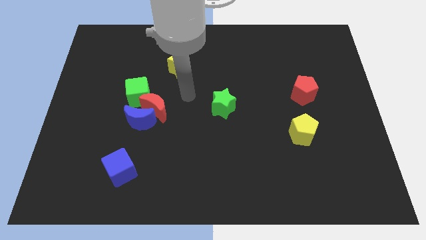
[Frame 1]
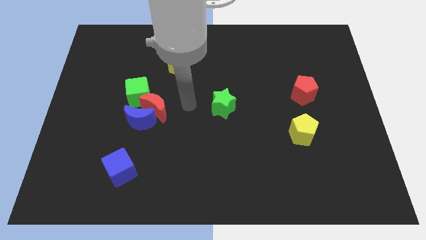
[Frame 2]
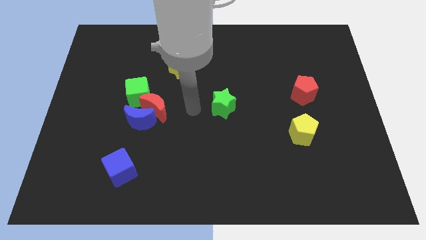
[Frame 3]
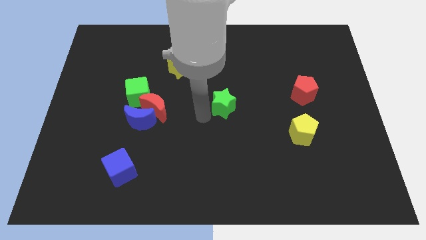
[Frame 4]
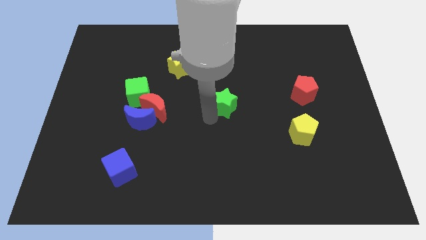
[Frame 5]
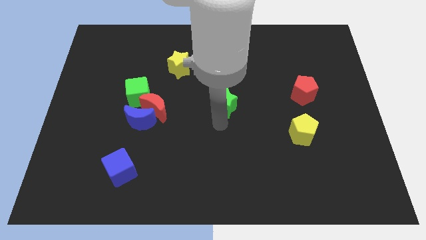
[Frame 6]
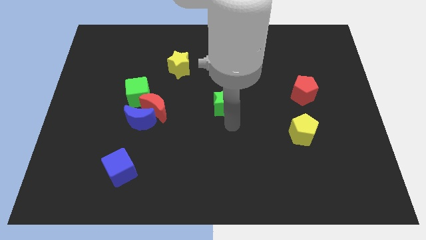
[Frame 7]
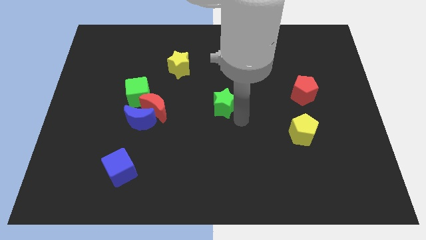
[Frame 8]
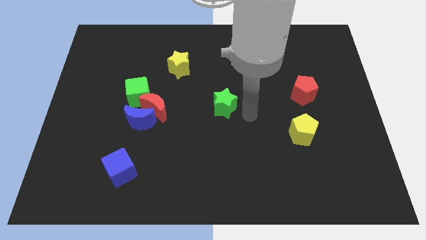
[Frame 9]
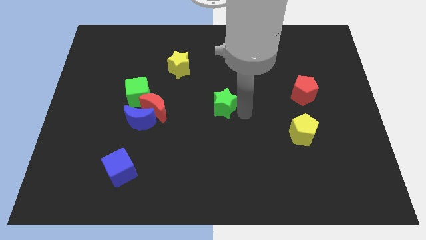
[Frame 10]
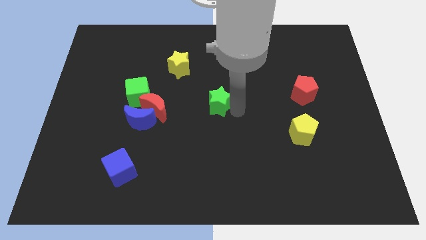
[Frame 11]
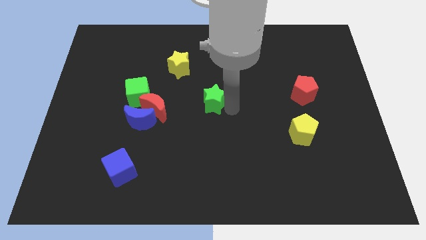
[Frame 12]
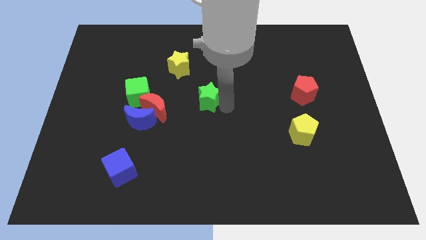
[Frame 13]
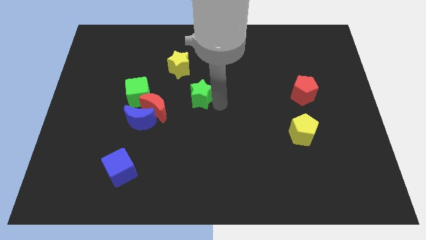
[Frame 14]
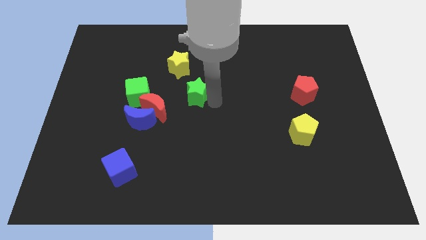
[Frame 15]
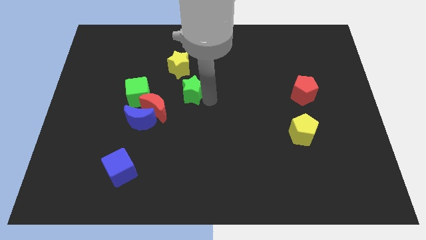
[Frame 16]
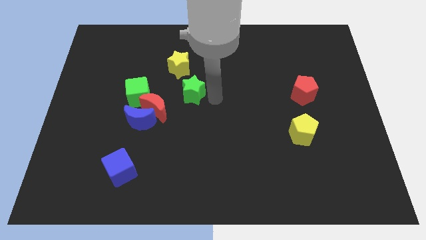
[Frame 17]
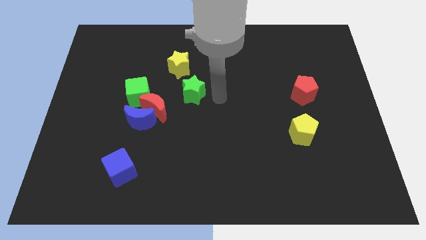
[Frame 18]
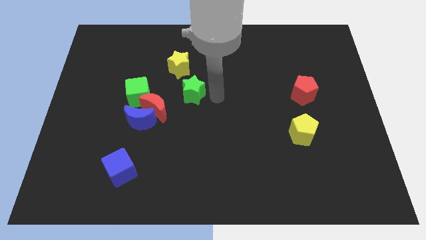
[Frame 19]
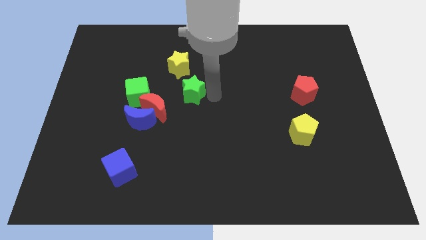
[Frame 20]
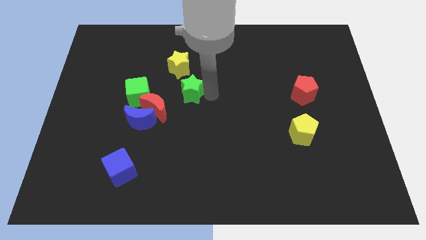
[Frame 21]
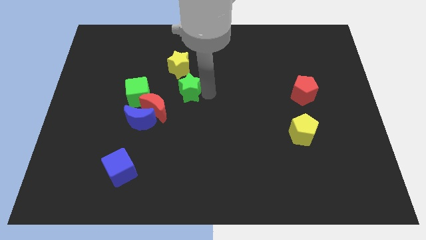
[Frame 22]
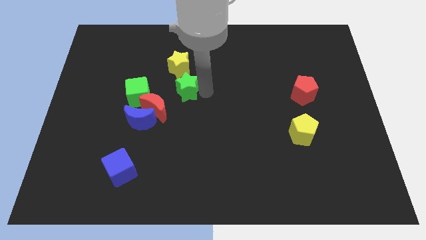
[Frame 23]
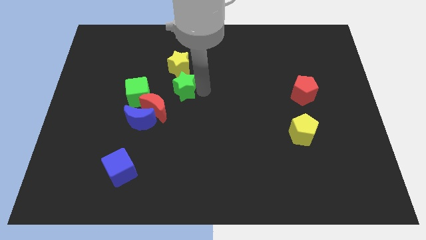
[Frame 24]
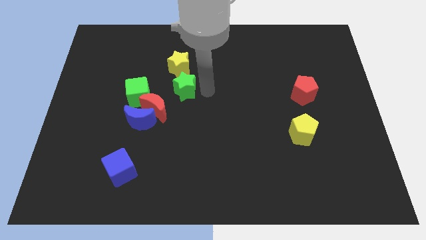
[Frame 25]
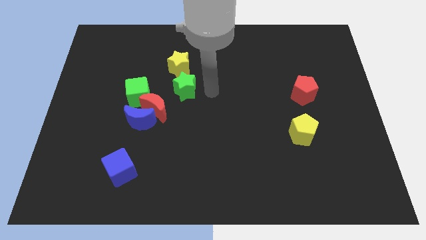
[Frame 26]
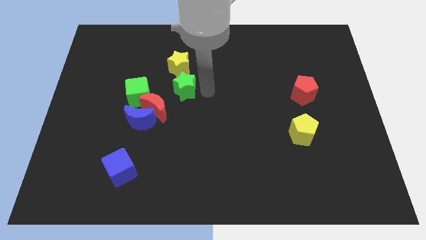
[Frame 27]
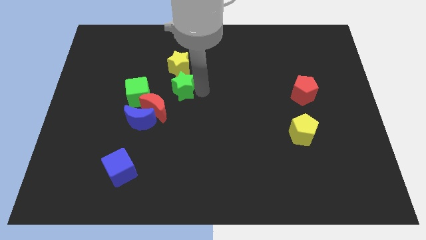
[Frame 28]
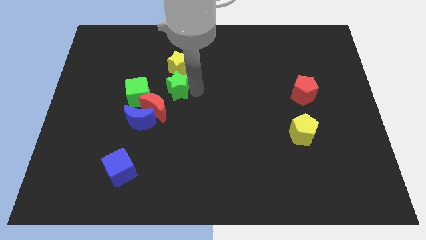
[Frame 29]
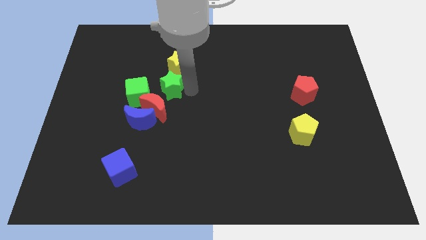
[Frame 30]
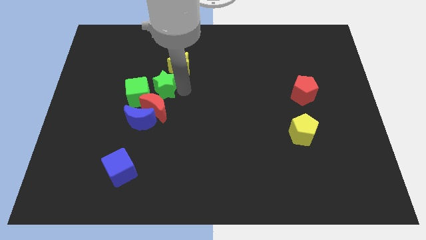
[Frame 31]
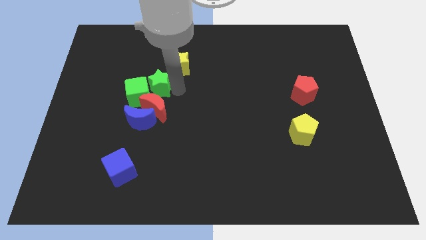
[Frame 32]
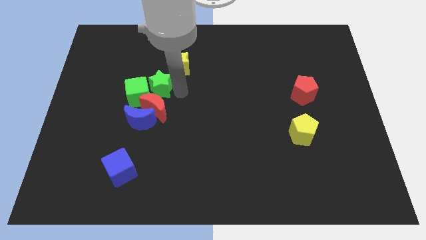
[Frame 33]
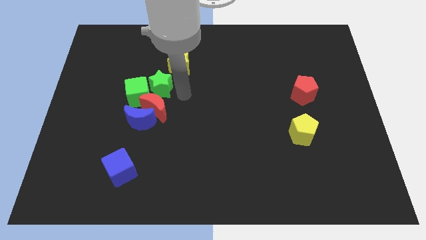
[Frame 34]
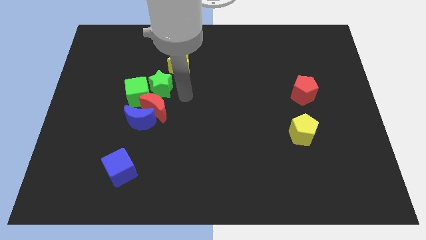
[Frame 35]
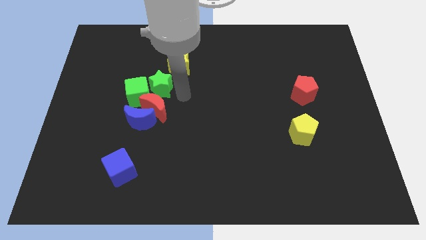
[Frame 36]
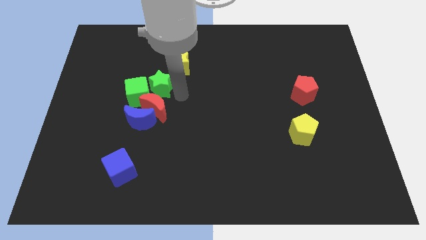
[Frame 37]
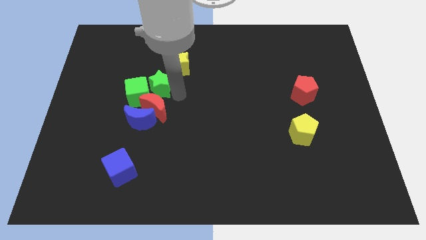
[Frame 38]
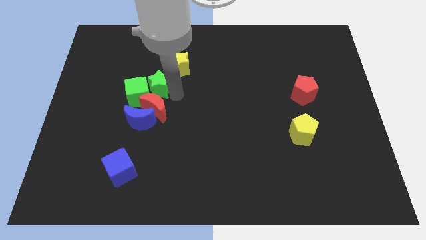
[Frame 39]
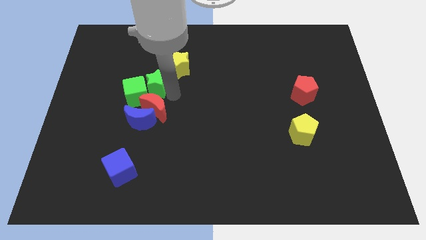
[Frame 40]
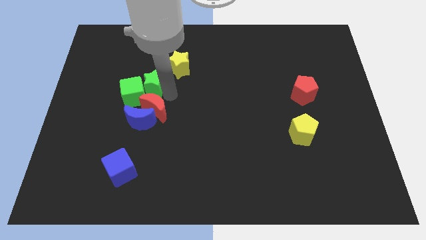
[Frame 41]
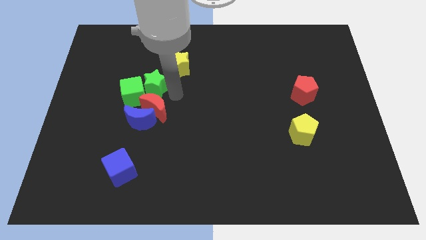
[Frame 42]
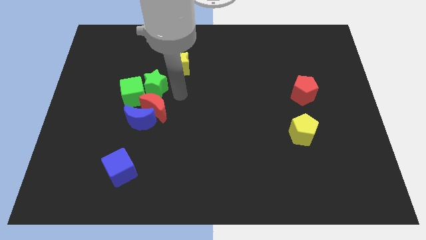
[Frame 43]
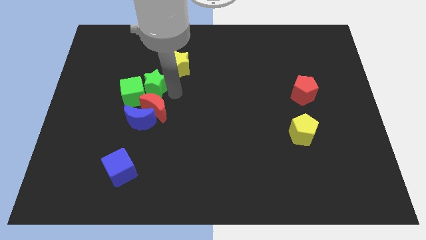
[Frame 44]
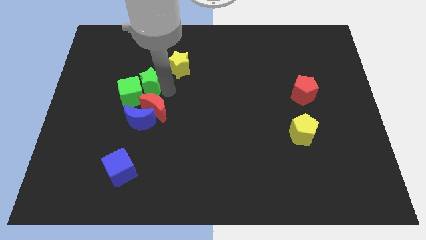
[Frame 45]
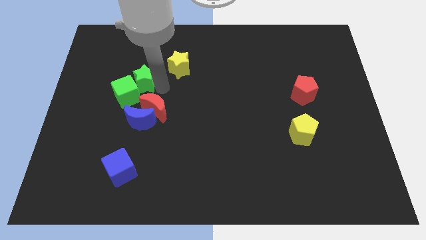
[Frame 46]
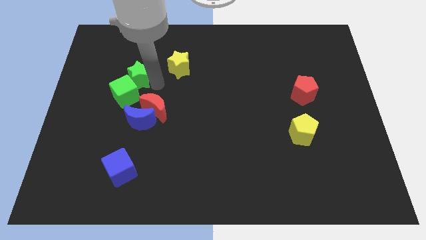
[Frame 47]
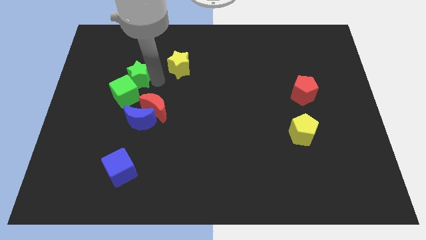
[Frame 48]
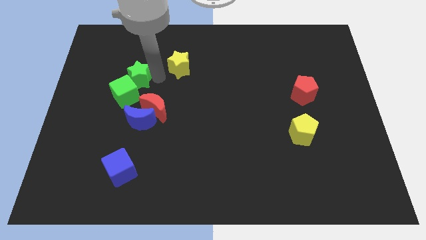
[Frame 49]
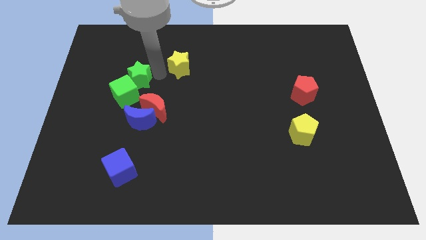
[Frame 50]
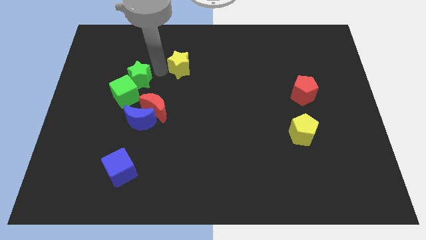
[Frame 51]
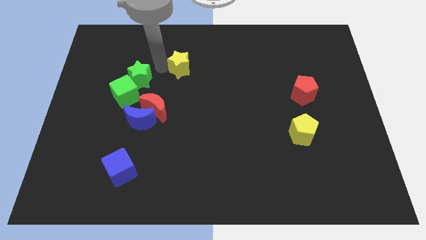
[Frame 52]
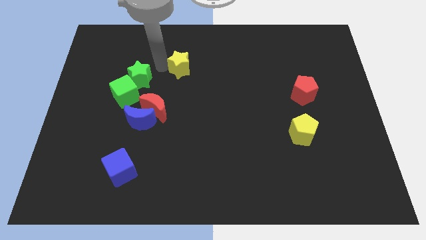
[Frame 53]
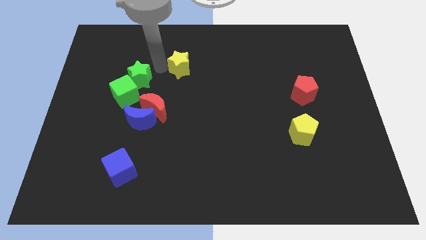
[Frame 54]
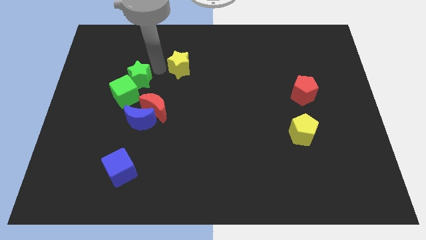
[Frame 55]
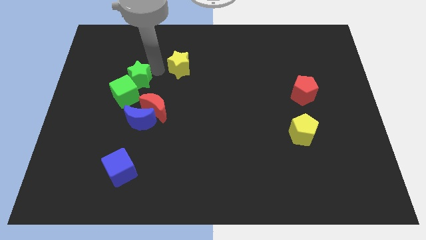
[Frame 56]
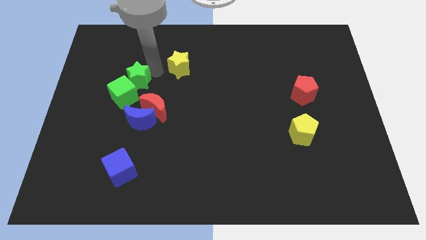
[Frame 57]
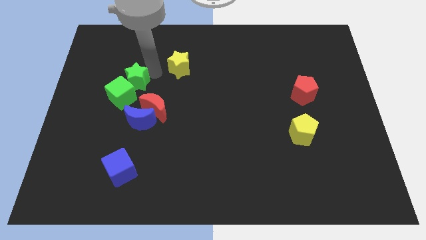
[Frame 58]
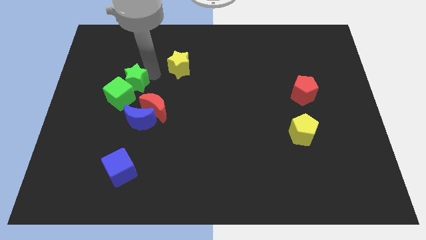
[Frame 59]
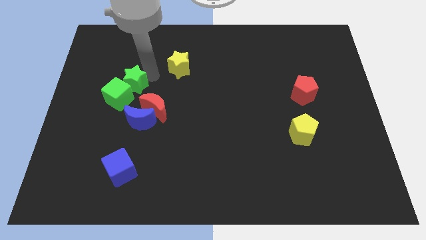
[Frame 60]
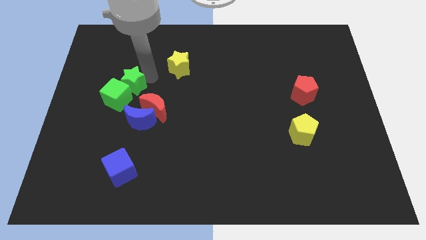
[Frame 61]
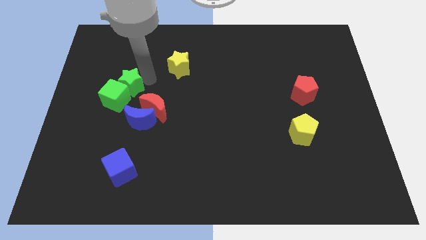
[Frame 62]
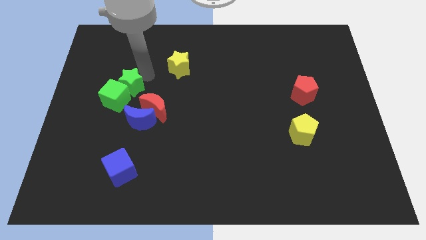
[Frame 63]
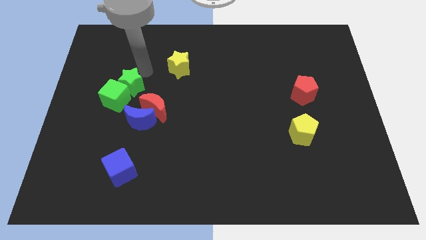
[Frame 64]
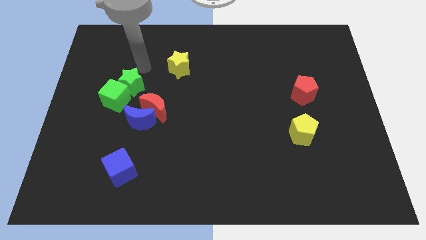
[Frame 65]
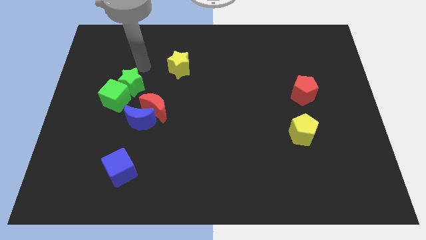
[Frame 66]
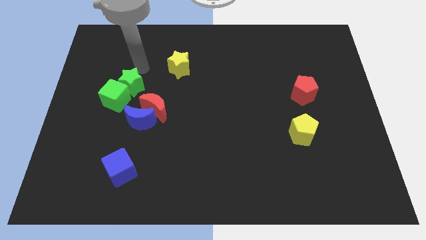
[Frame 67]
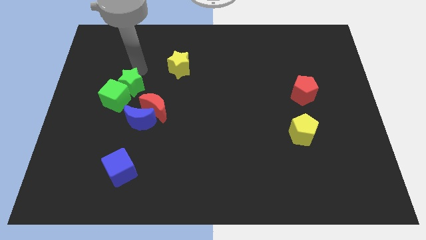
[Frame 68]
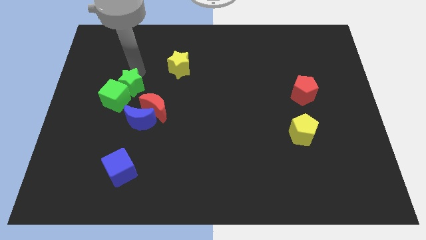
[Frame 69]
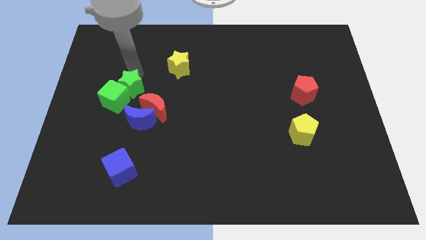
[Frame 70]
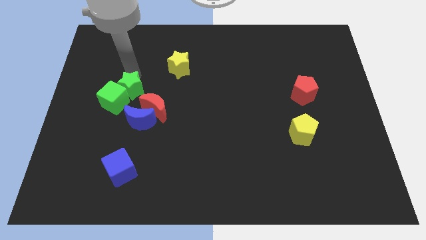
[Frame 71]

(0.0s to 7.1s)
move the green star to the top left side of the blue moon

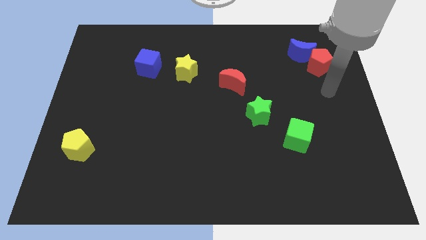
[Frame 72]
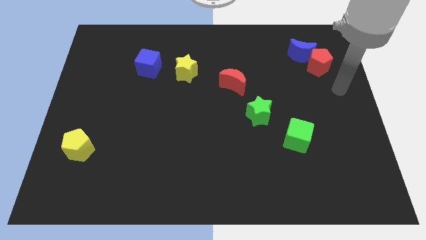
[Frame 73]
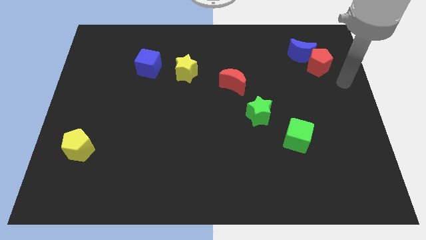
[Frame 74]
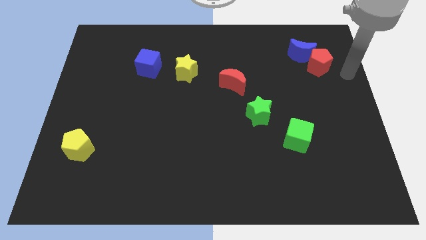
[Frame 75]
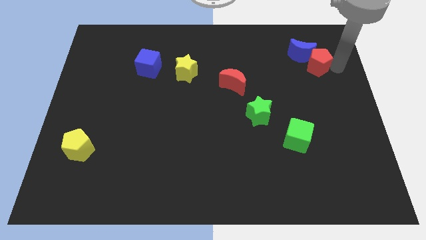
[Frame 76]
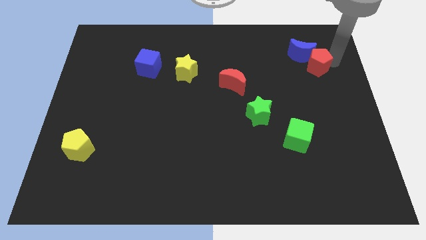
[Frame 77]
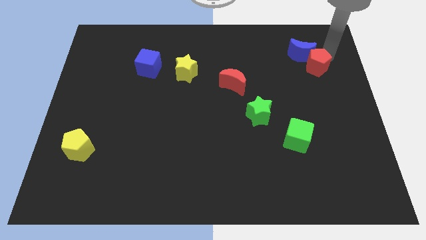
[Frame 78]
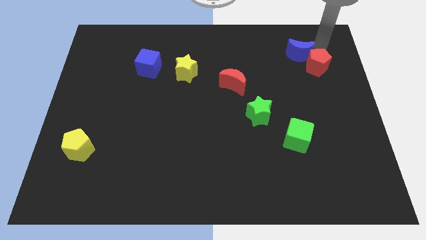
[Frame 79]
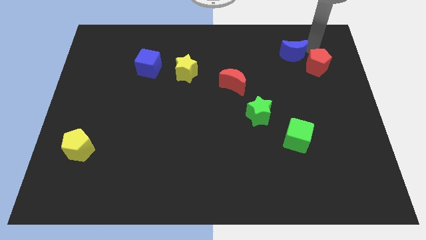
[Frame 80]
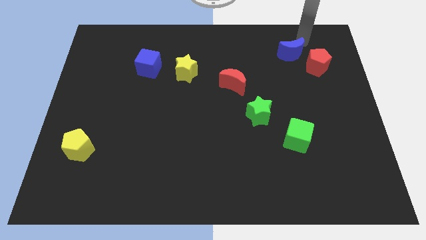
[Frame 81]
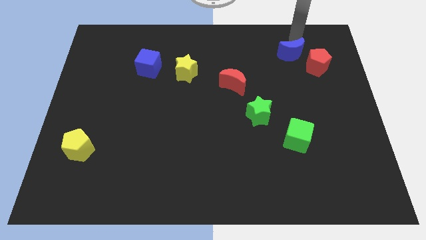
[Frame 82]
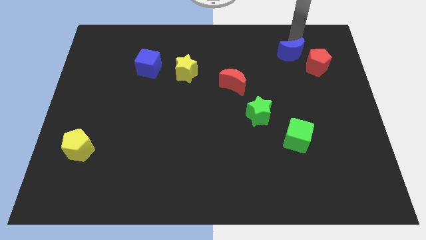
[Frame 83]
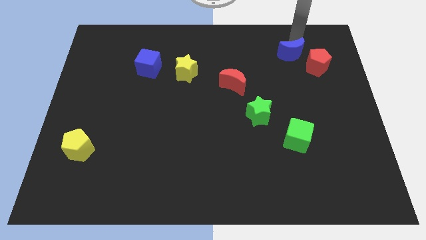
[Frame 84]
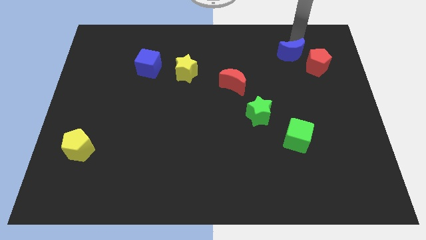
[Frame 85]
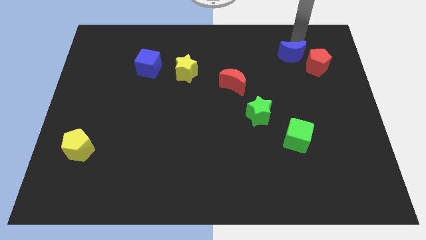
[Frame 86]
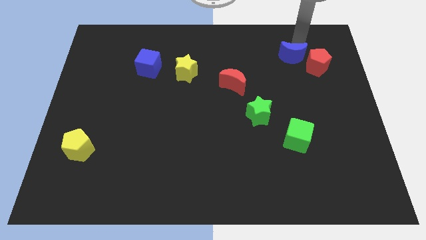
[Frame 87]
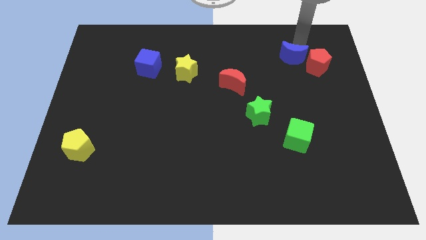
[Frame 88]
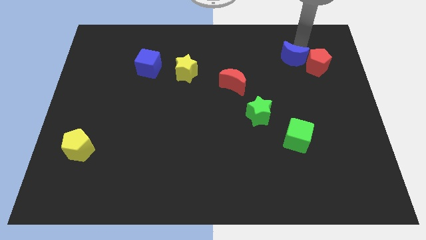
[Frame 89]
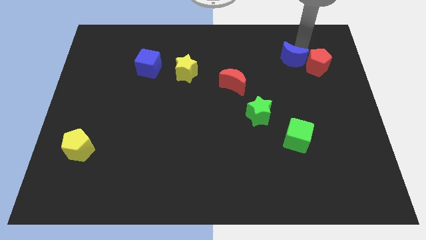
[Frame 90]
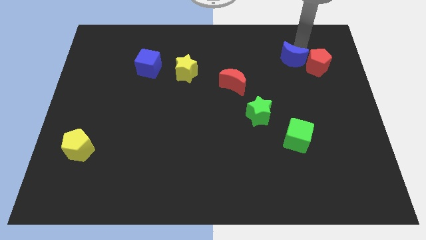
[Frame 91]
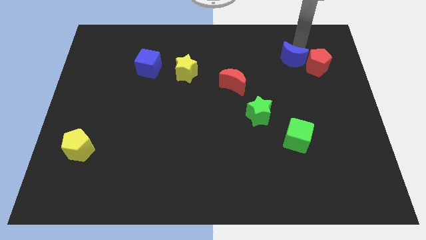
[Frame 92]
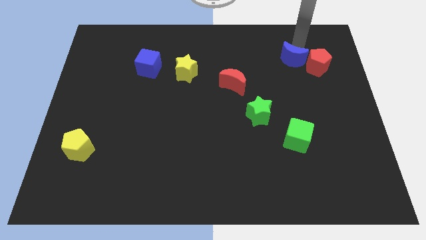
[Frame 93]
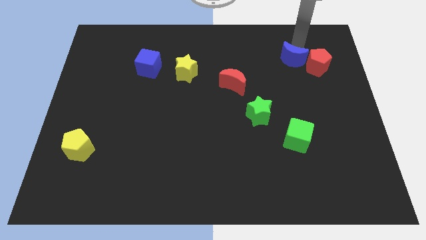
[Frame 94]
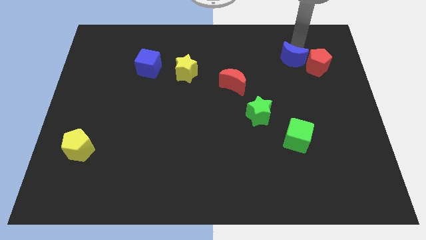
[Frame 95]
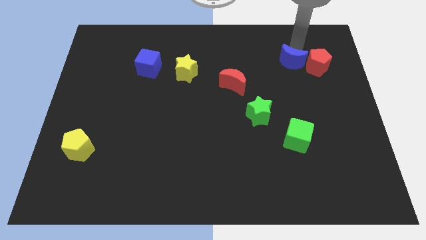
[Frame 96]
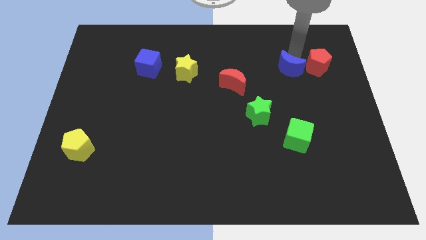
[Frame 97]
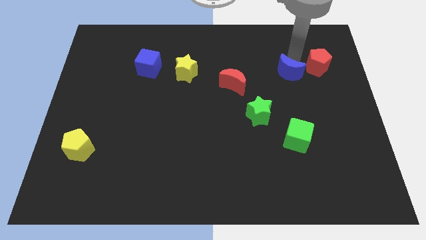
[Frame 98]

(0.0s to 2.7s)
push the blue moon to the right side of the red moon
